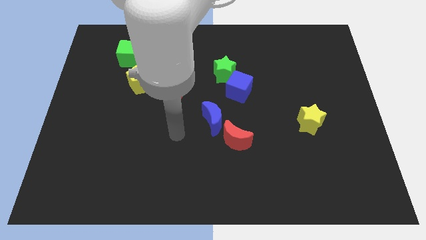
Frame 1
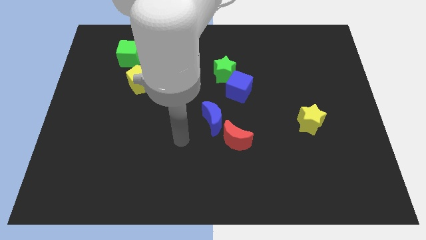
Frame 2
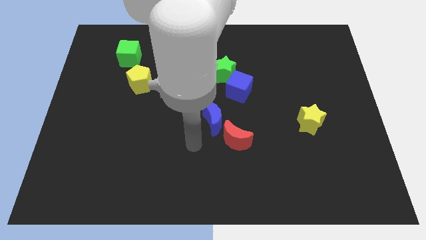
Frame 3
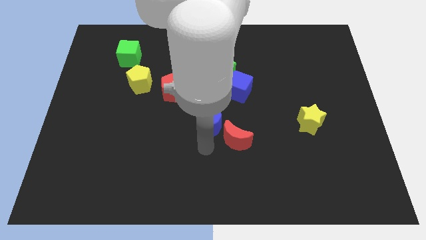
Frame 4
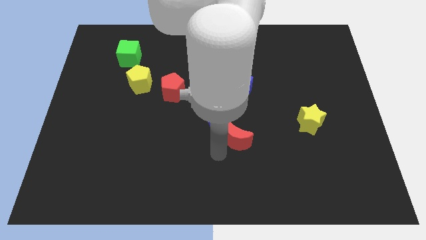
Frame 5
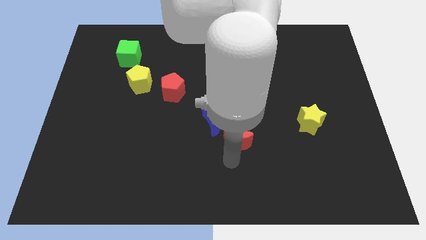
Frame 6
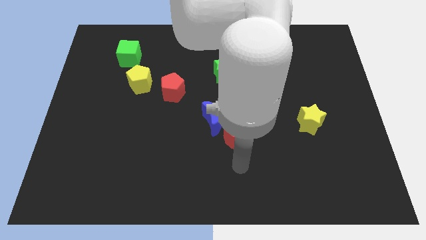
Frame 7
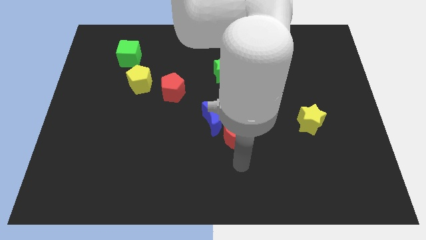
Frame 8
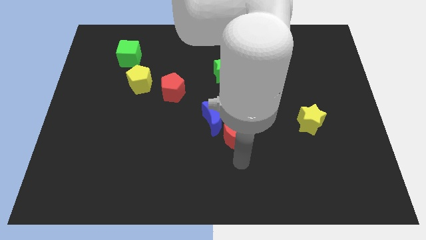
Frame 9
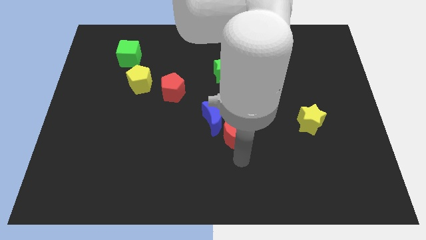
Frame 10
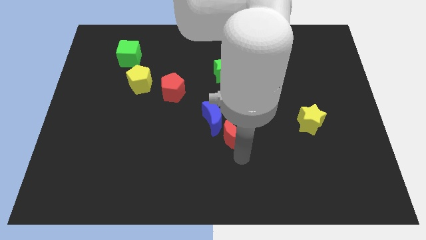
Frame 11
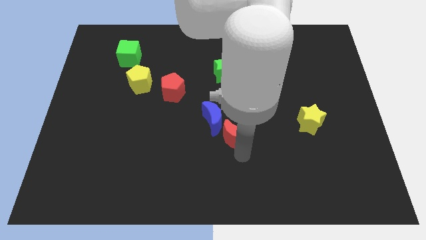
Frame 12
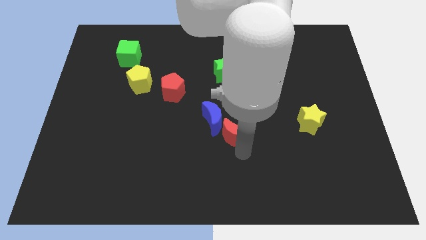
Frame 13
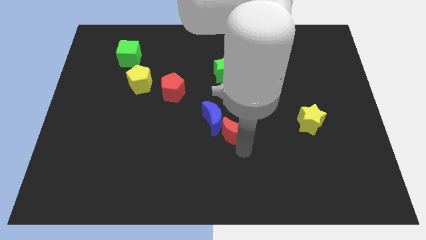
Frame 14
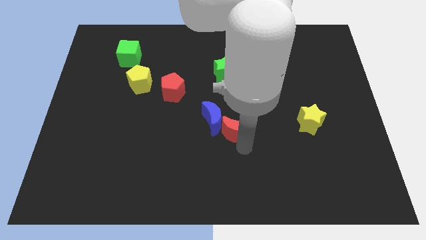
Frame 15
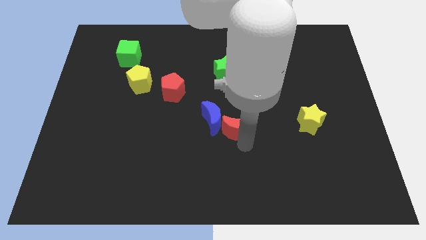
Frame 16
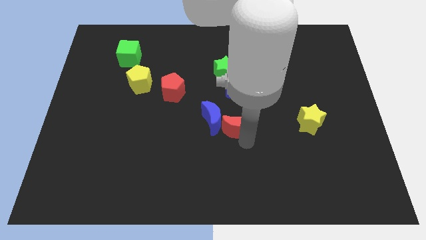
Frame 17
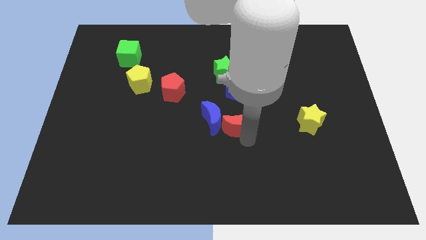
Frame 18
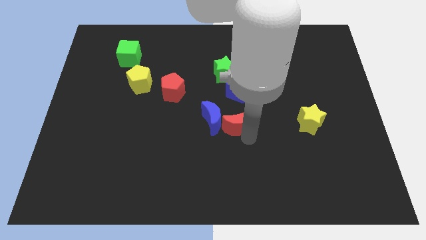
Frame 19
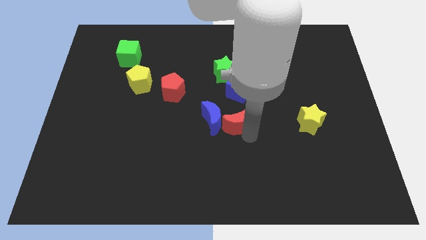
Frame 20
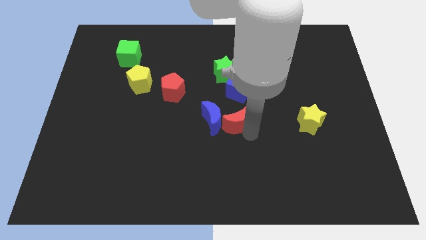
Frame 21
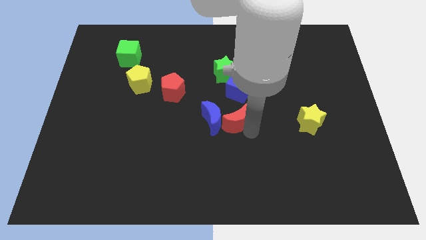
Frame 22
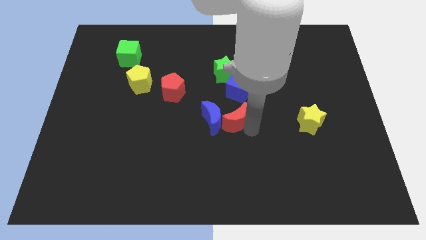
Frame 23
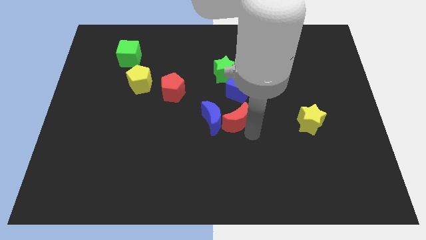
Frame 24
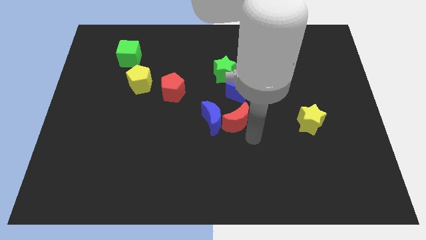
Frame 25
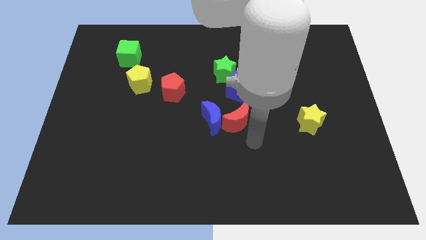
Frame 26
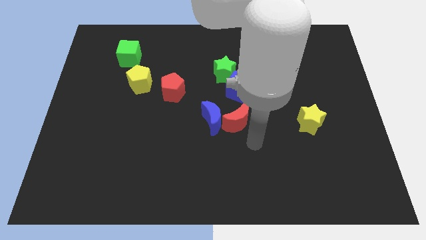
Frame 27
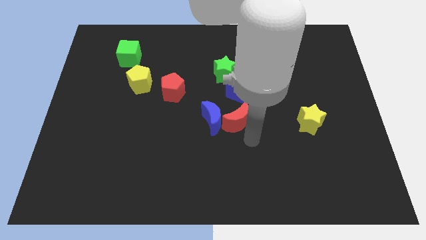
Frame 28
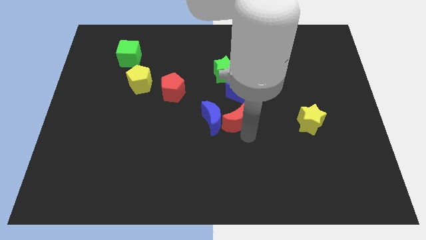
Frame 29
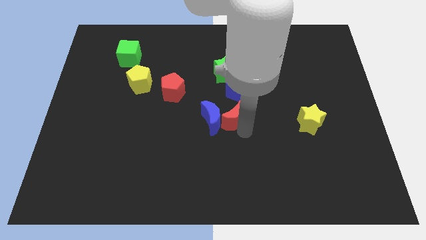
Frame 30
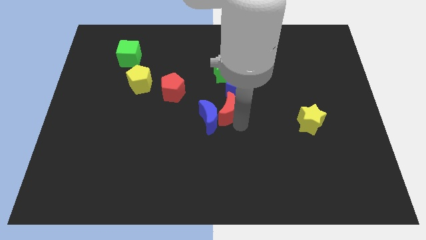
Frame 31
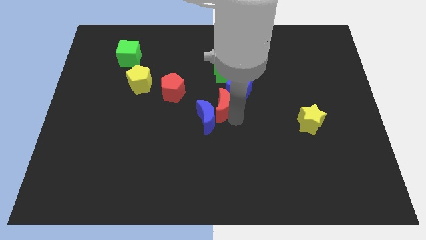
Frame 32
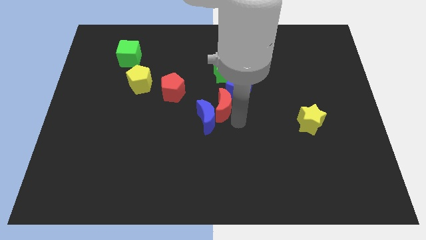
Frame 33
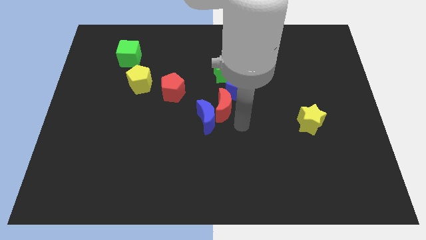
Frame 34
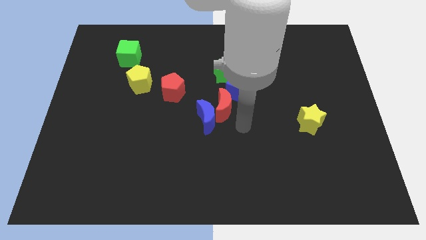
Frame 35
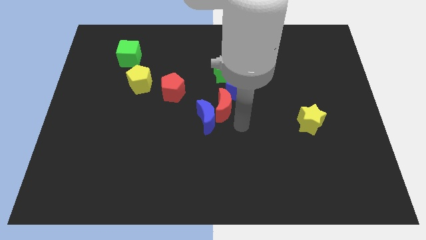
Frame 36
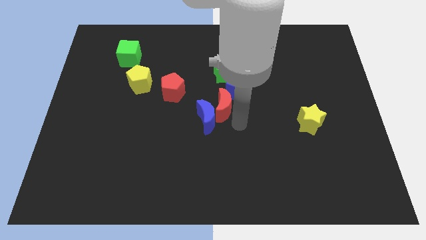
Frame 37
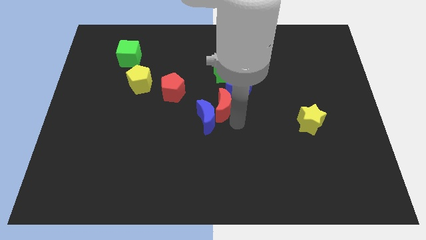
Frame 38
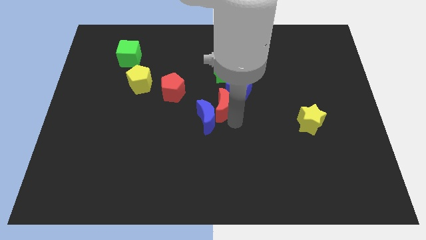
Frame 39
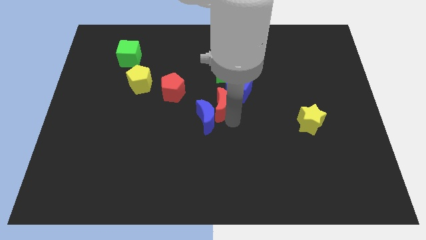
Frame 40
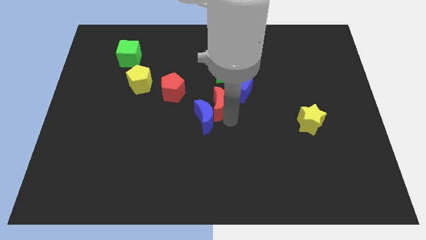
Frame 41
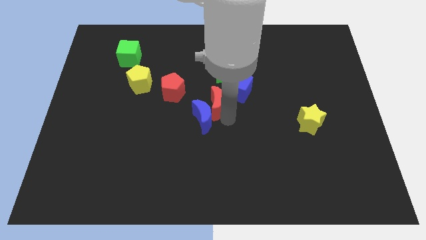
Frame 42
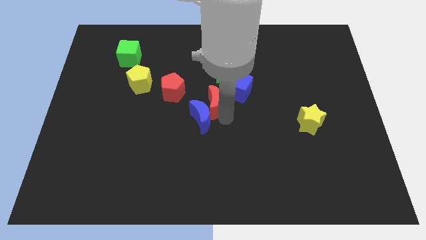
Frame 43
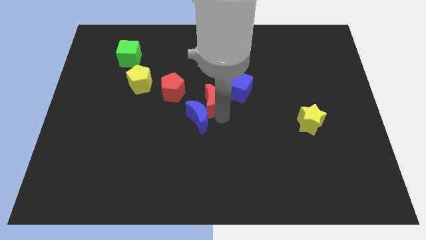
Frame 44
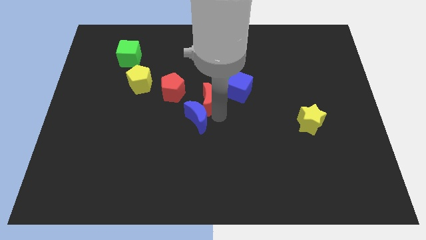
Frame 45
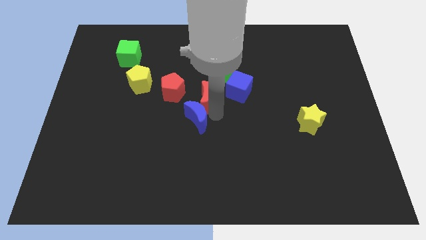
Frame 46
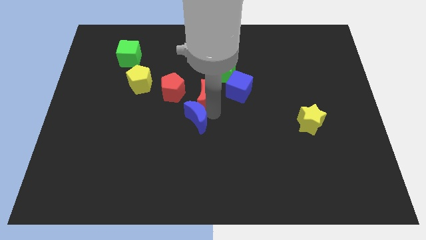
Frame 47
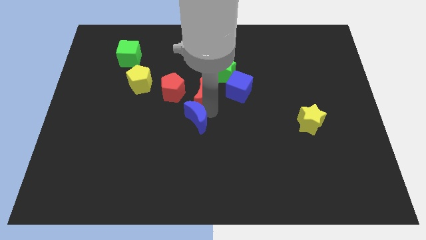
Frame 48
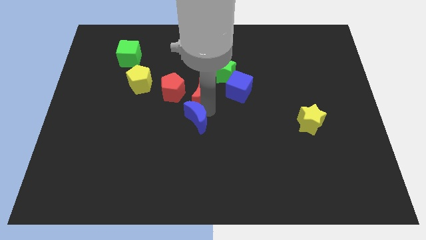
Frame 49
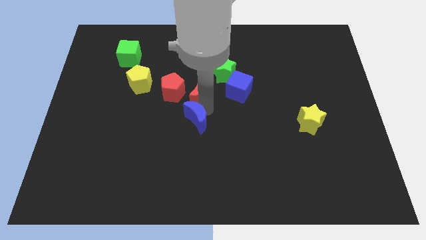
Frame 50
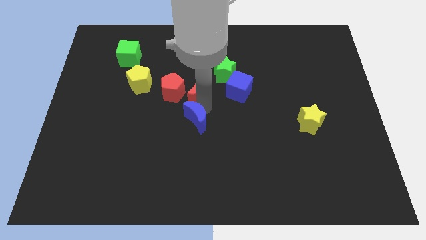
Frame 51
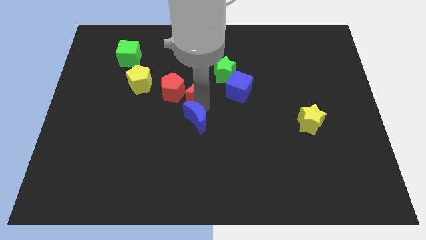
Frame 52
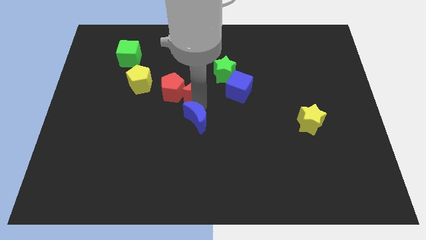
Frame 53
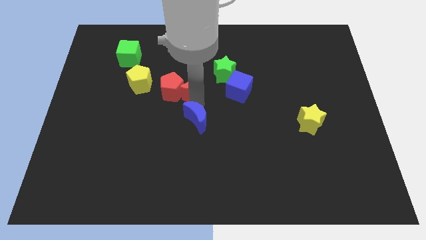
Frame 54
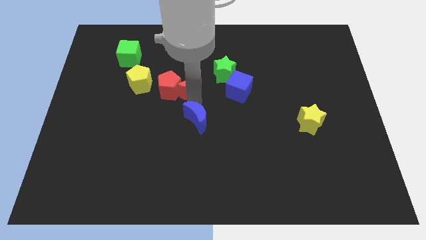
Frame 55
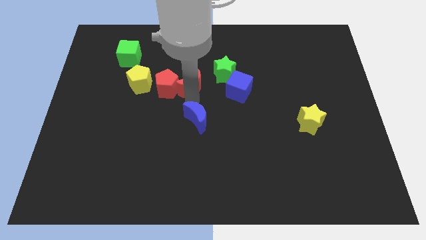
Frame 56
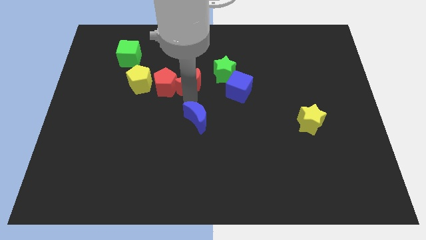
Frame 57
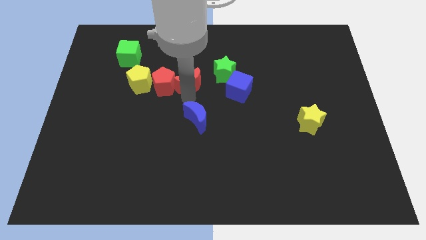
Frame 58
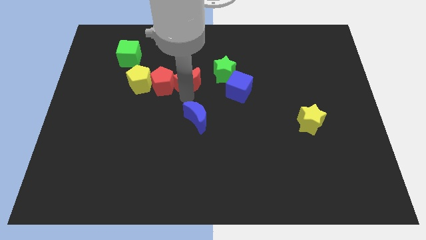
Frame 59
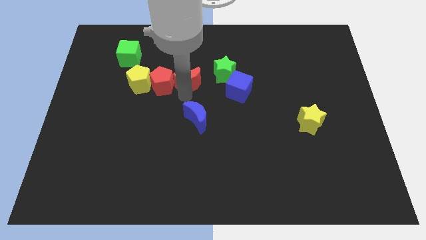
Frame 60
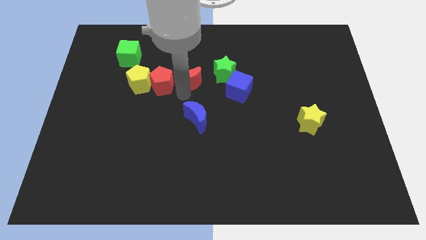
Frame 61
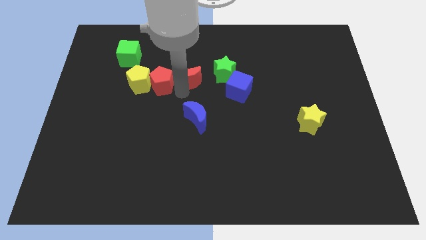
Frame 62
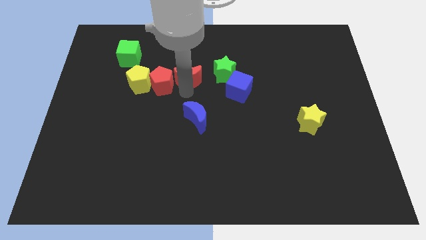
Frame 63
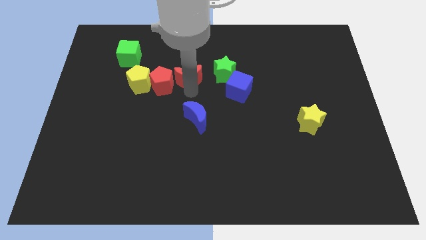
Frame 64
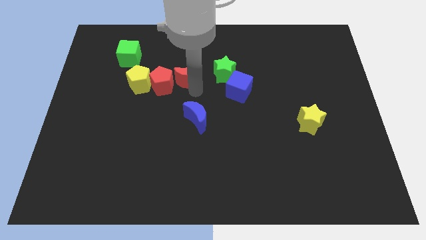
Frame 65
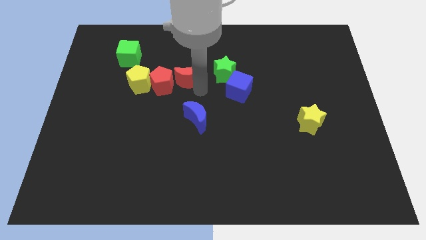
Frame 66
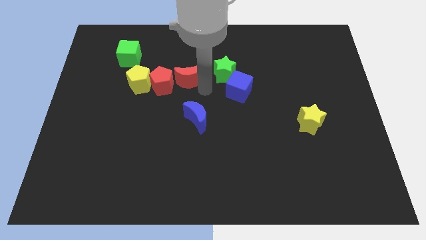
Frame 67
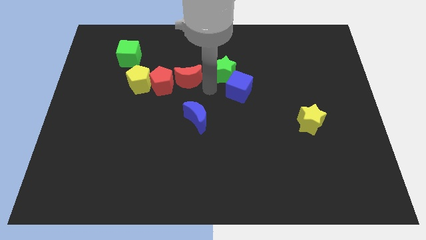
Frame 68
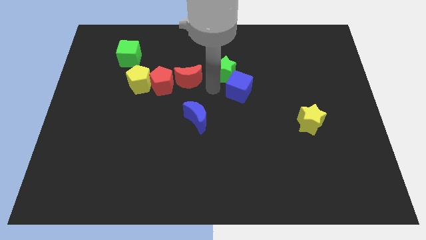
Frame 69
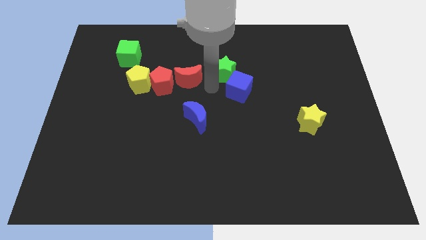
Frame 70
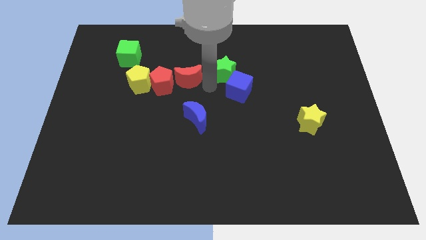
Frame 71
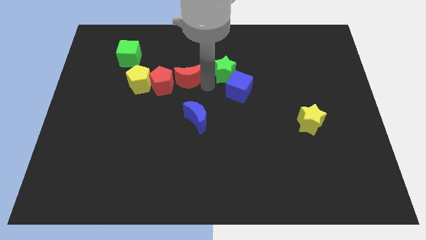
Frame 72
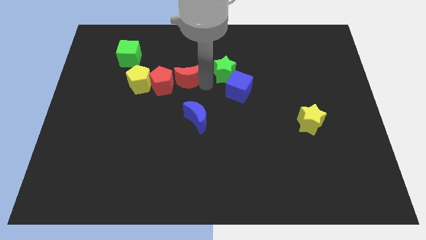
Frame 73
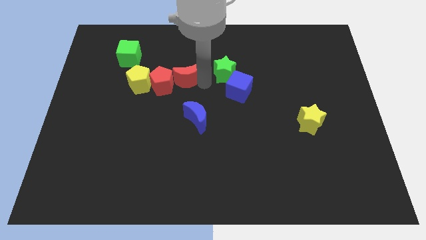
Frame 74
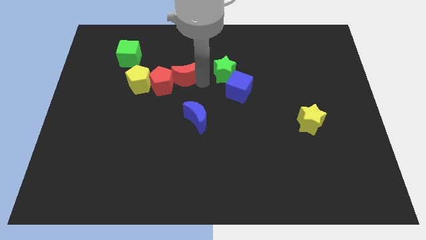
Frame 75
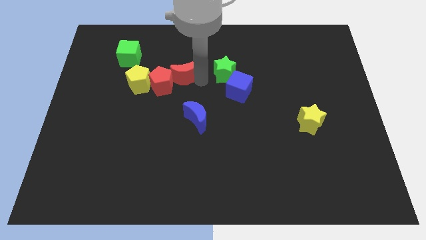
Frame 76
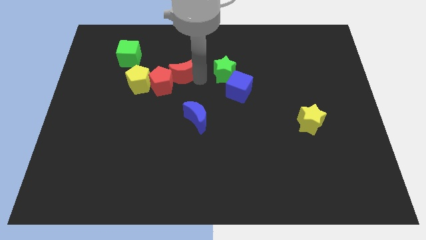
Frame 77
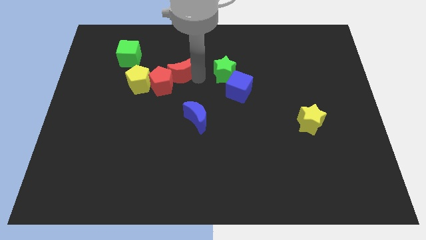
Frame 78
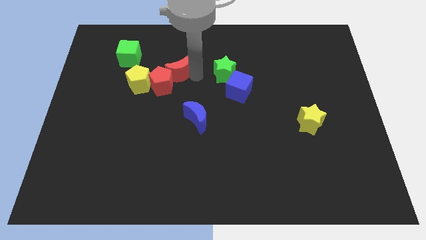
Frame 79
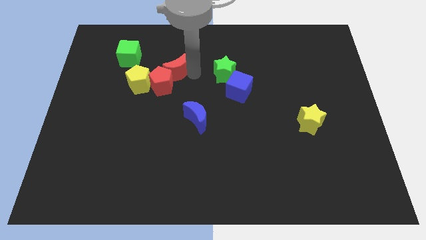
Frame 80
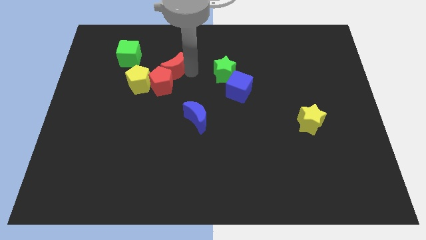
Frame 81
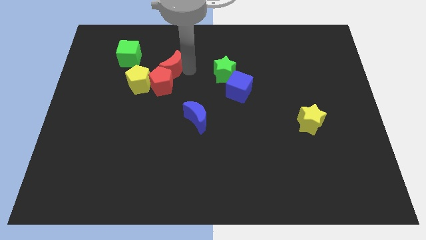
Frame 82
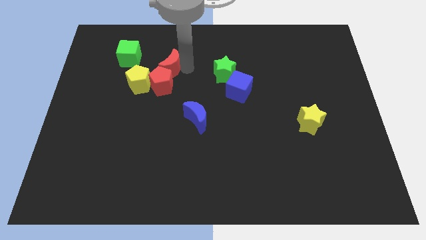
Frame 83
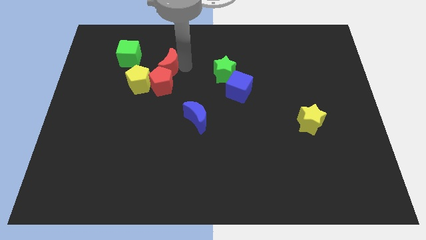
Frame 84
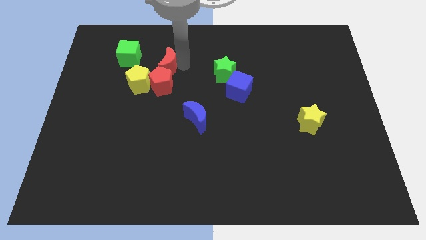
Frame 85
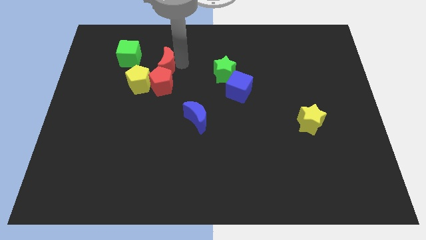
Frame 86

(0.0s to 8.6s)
move the red moon to the top left side of the red pentagon
